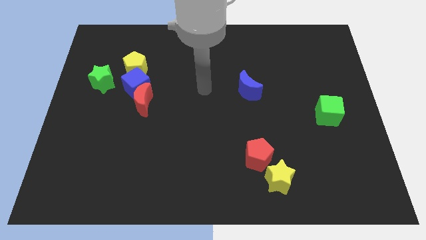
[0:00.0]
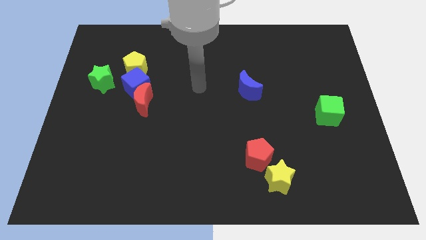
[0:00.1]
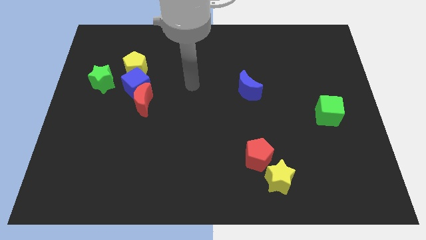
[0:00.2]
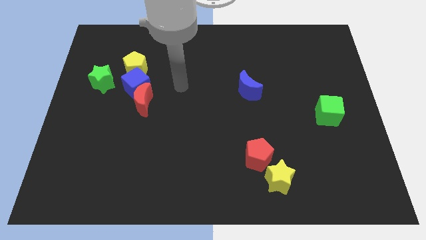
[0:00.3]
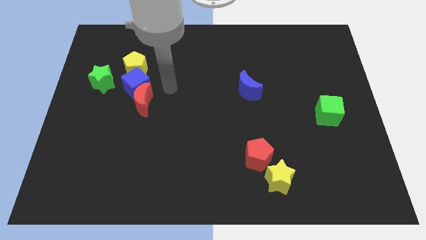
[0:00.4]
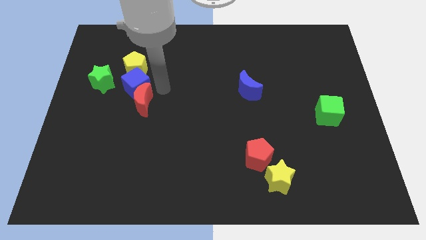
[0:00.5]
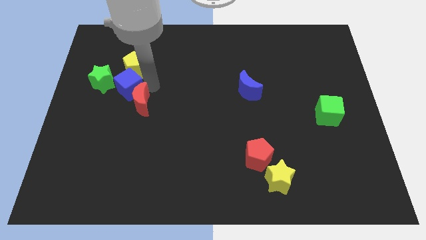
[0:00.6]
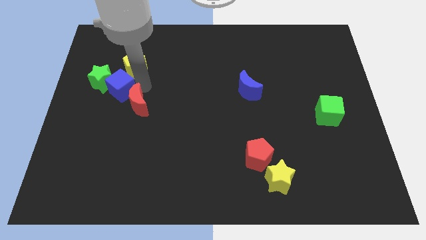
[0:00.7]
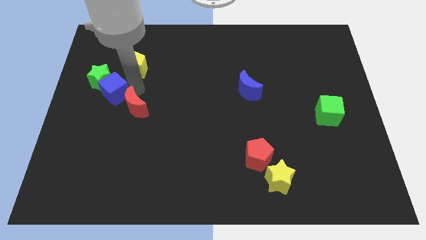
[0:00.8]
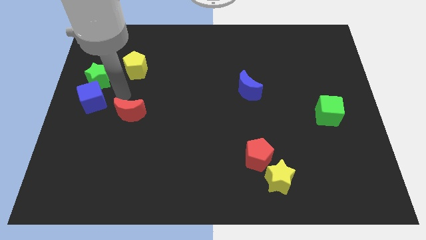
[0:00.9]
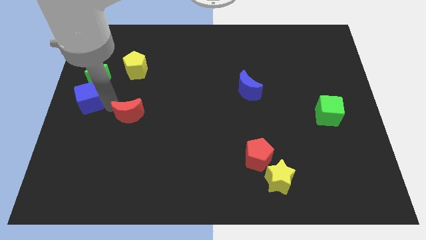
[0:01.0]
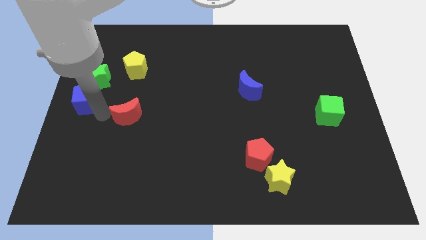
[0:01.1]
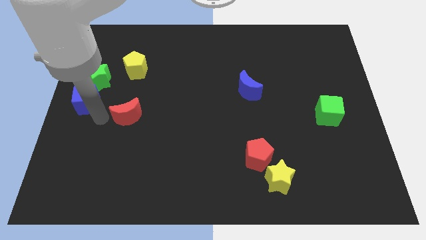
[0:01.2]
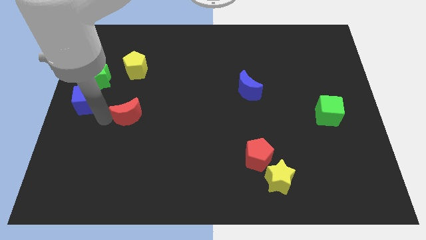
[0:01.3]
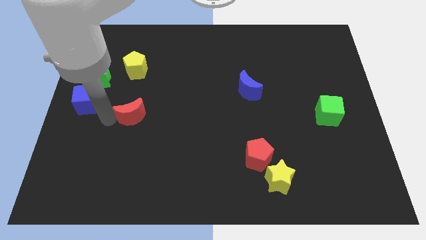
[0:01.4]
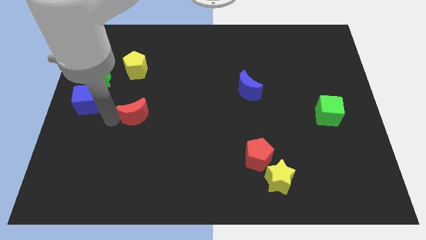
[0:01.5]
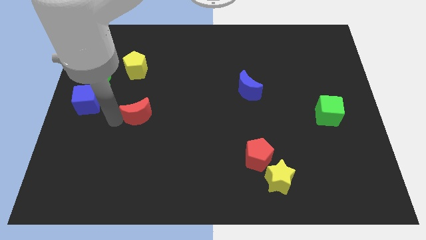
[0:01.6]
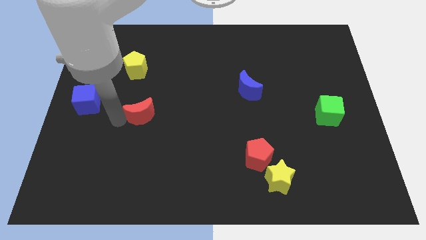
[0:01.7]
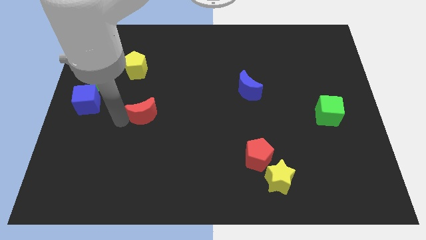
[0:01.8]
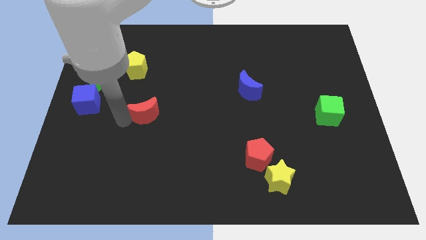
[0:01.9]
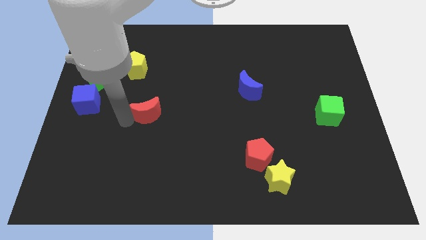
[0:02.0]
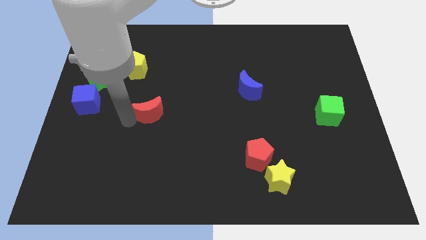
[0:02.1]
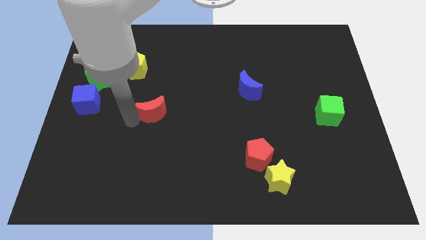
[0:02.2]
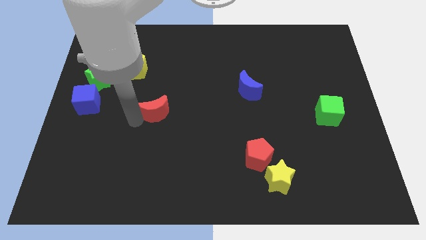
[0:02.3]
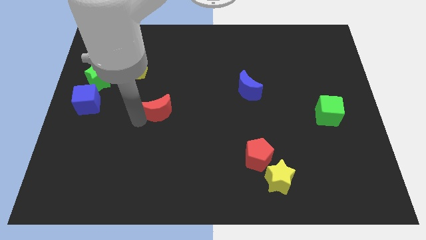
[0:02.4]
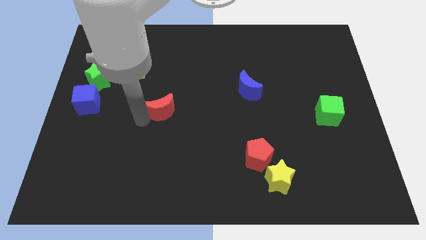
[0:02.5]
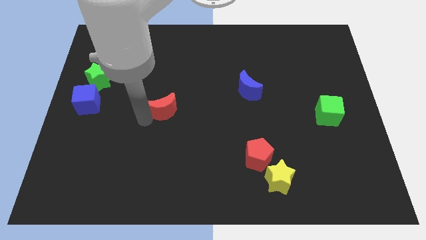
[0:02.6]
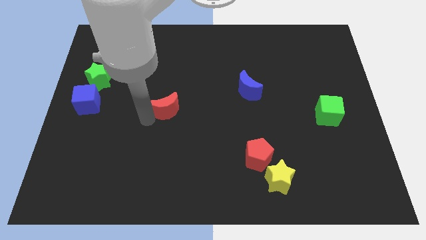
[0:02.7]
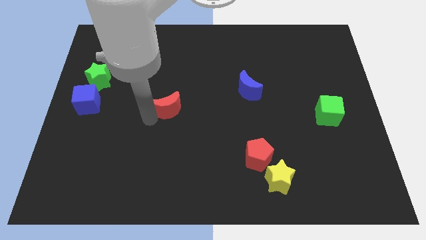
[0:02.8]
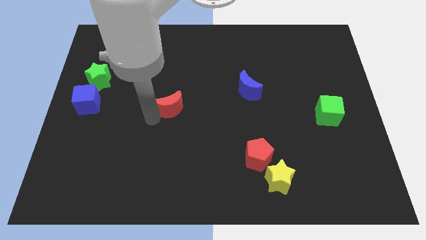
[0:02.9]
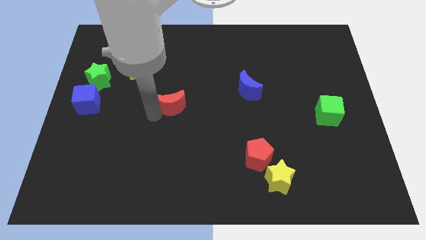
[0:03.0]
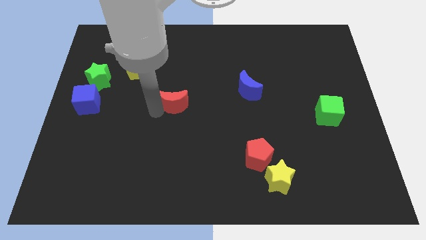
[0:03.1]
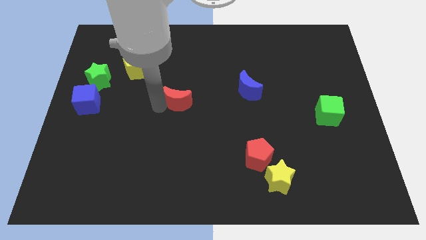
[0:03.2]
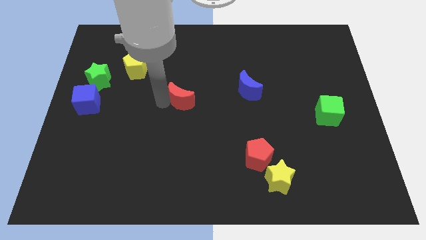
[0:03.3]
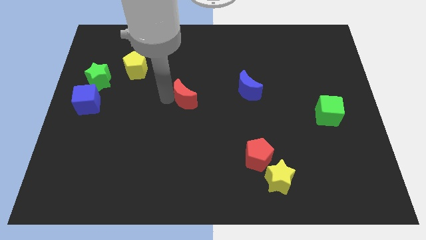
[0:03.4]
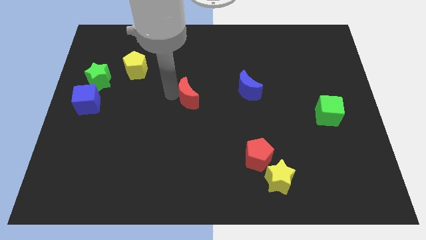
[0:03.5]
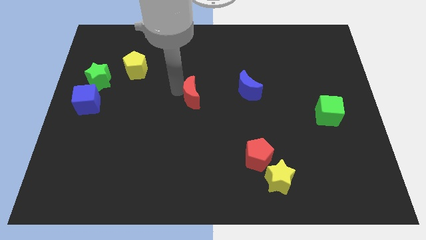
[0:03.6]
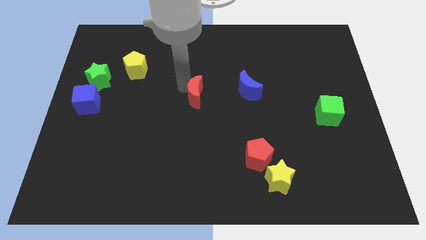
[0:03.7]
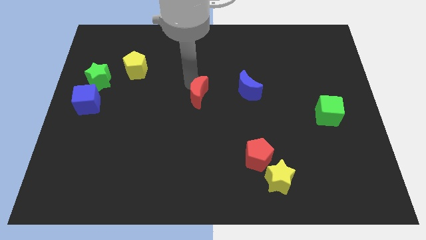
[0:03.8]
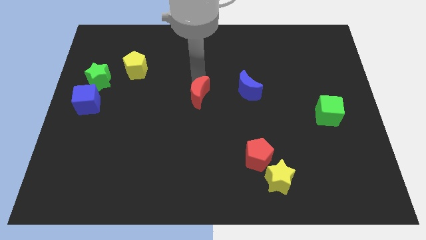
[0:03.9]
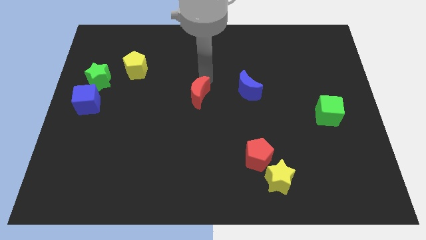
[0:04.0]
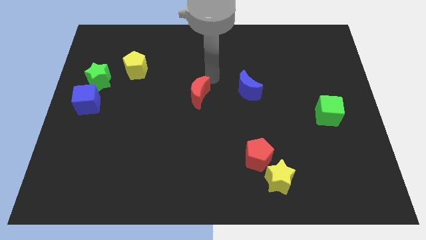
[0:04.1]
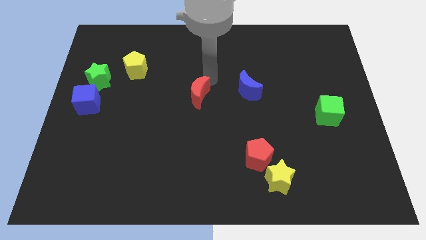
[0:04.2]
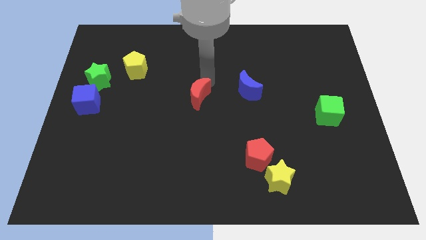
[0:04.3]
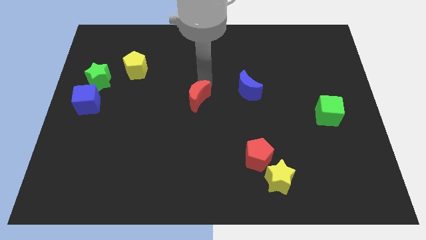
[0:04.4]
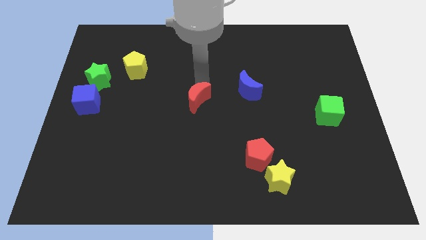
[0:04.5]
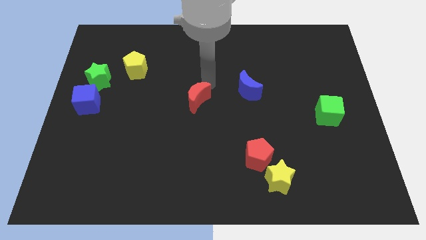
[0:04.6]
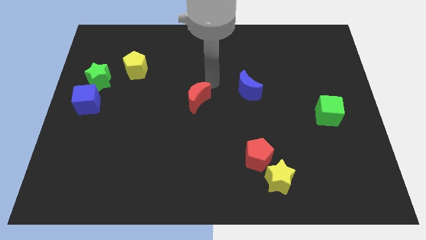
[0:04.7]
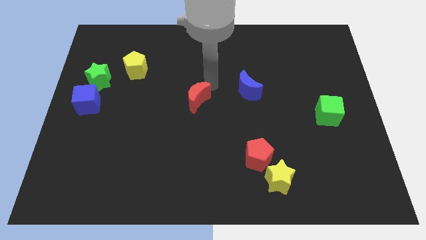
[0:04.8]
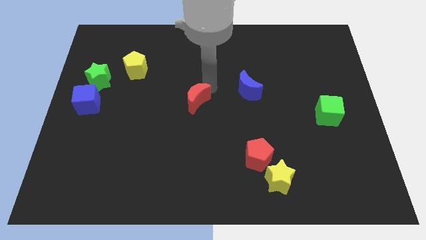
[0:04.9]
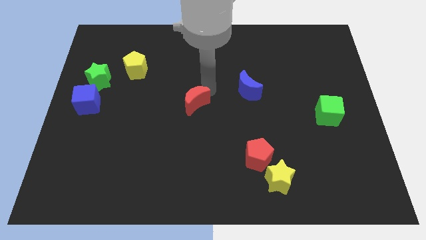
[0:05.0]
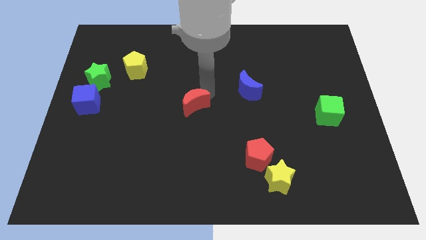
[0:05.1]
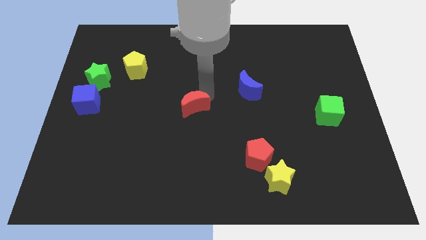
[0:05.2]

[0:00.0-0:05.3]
slightly slide the red moon down and to the right

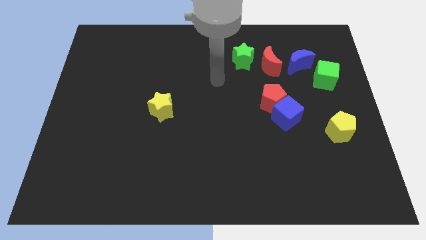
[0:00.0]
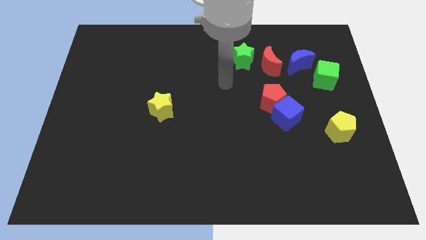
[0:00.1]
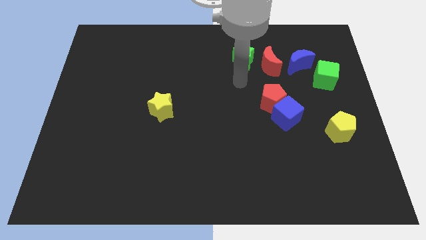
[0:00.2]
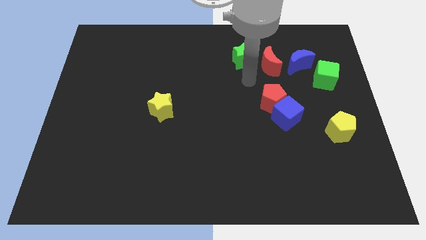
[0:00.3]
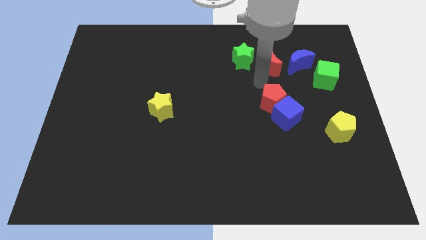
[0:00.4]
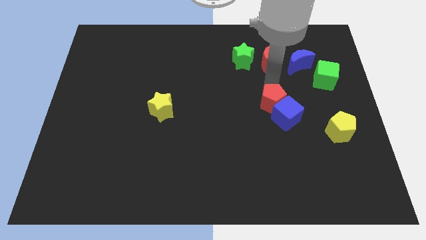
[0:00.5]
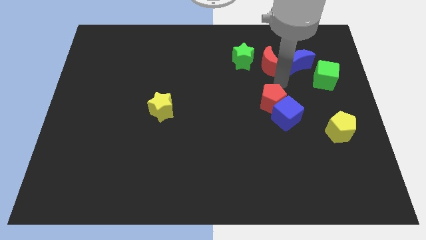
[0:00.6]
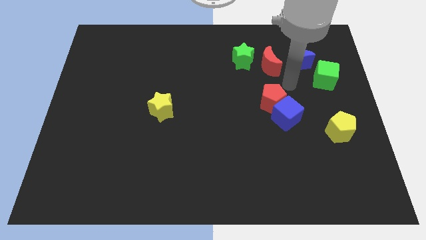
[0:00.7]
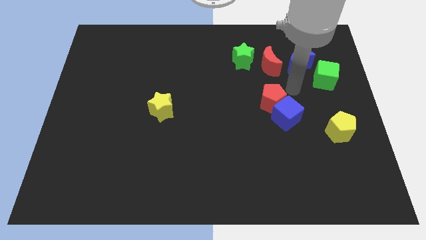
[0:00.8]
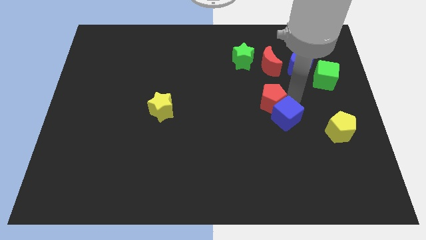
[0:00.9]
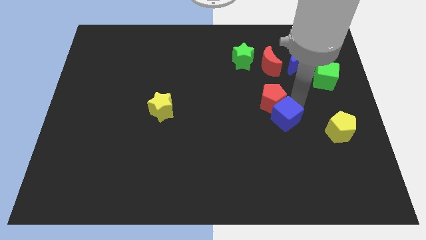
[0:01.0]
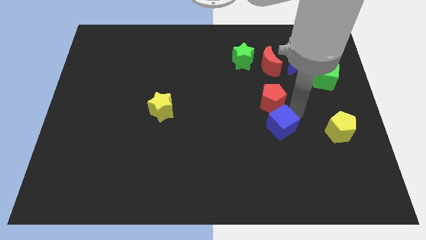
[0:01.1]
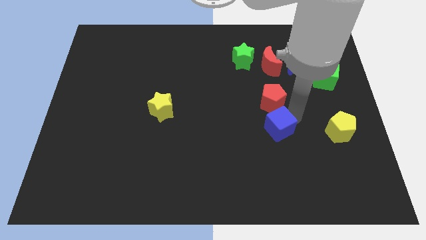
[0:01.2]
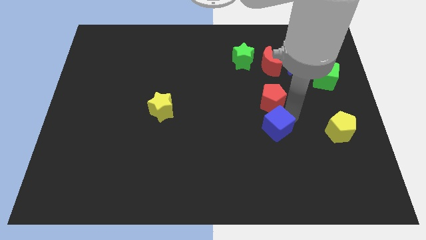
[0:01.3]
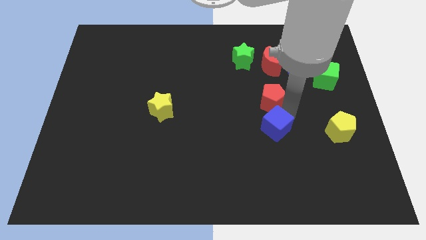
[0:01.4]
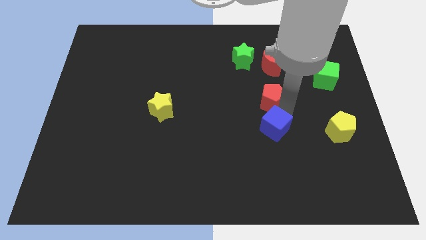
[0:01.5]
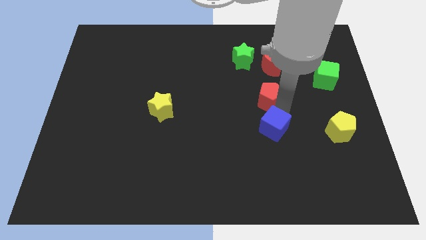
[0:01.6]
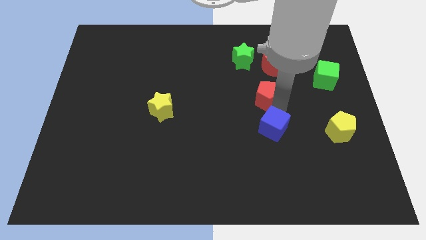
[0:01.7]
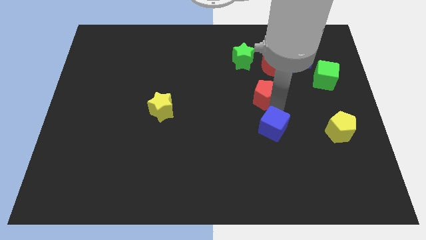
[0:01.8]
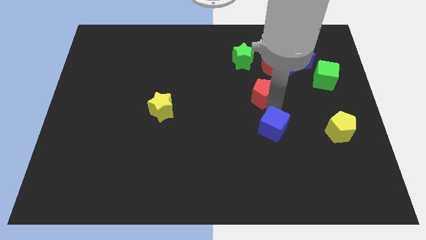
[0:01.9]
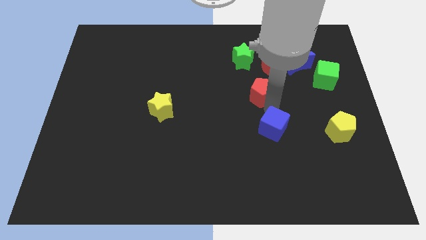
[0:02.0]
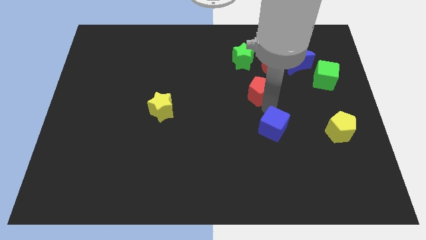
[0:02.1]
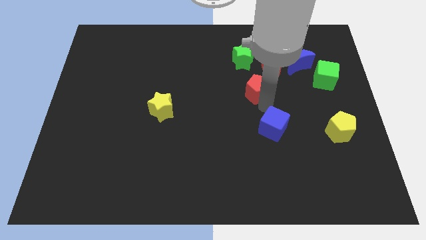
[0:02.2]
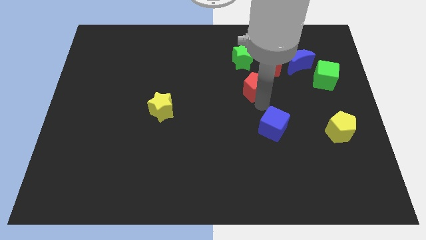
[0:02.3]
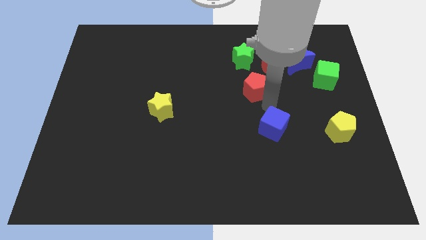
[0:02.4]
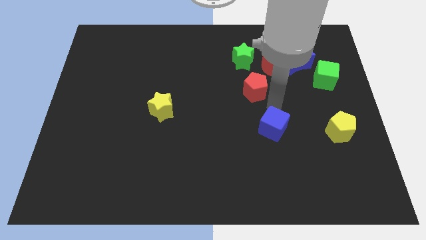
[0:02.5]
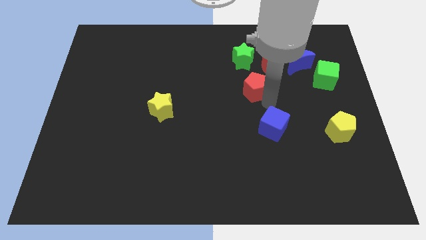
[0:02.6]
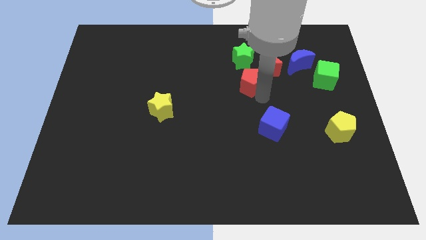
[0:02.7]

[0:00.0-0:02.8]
push the red pentagon diagonally upwards and to the left a bit
